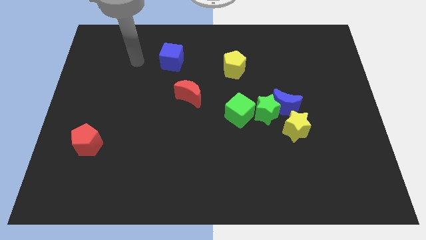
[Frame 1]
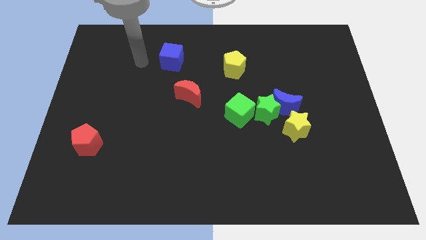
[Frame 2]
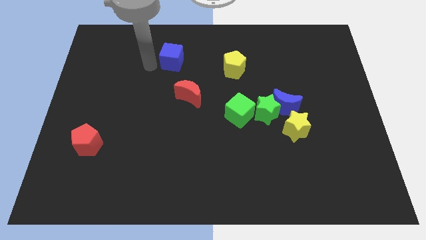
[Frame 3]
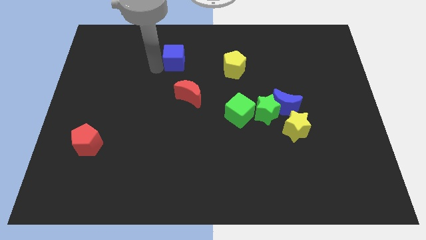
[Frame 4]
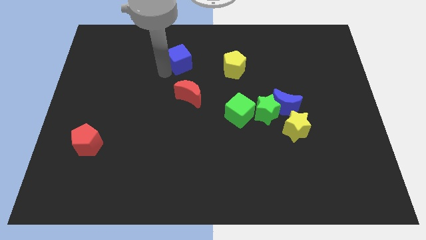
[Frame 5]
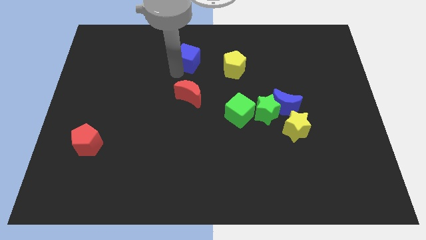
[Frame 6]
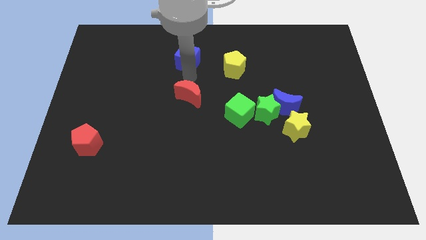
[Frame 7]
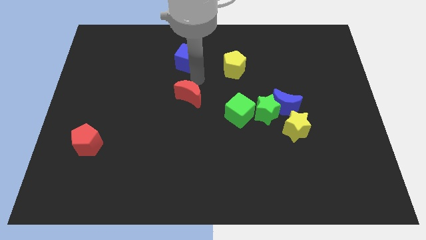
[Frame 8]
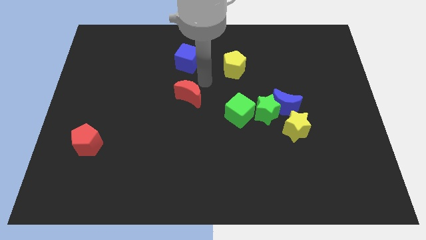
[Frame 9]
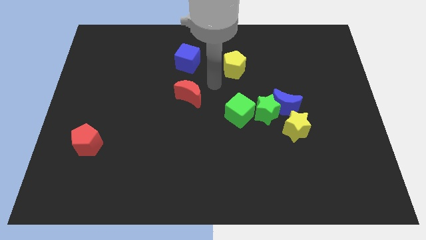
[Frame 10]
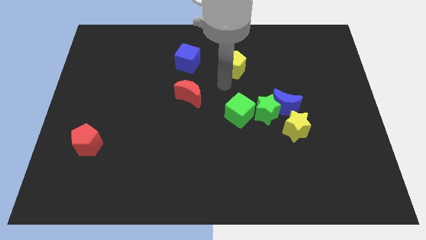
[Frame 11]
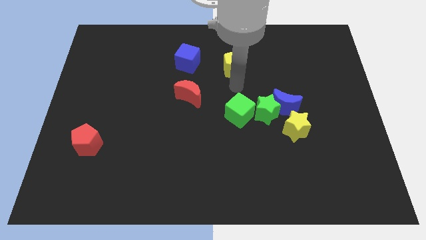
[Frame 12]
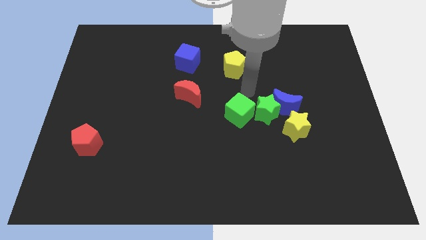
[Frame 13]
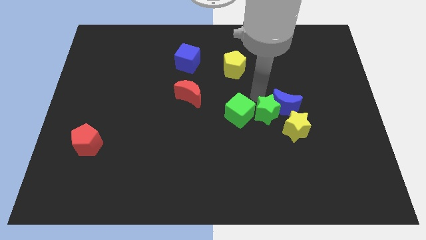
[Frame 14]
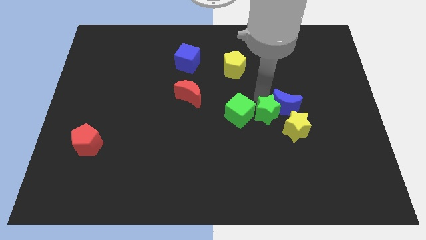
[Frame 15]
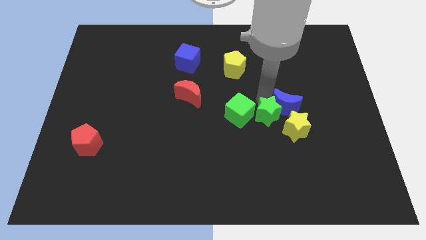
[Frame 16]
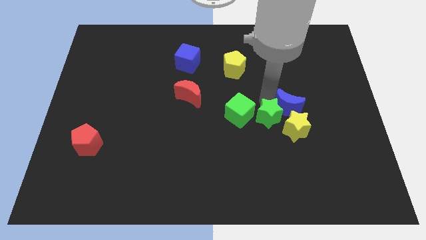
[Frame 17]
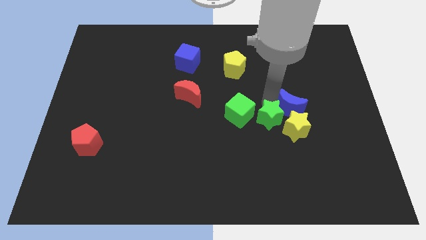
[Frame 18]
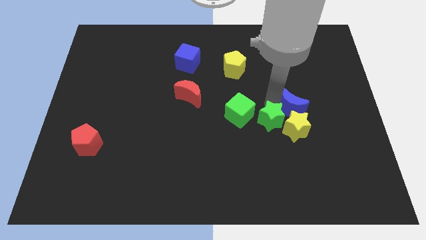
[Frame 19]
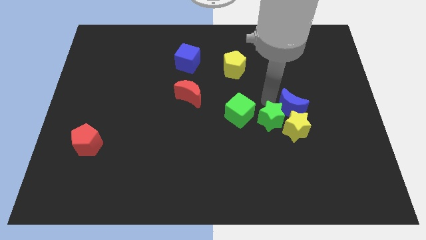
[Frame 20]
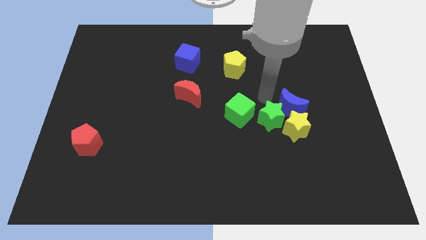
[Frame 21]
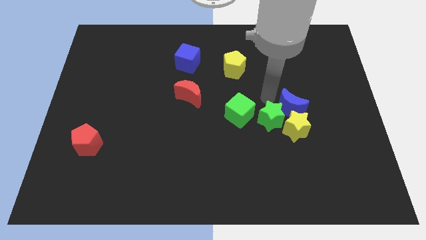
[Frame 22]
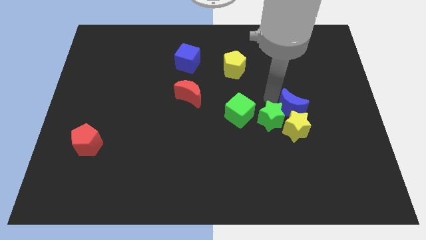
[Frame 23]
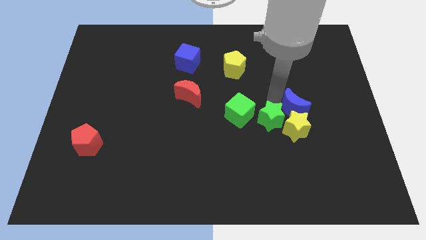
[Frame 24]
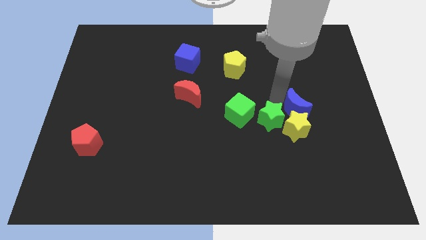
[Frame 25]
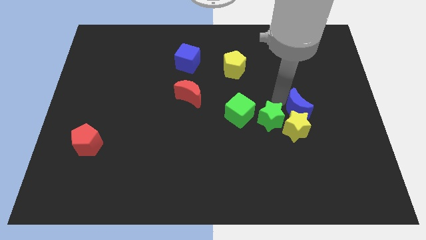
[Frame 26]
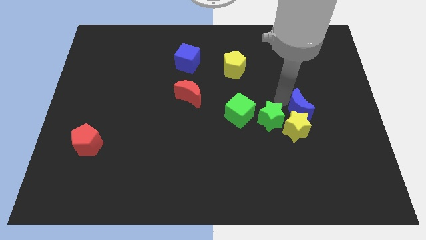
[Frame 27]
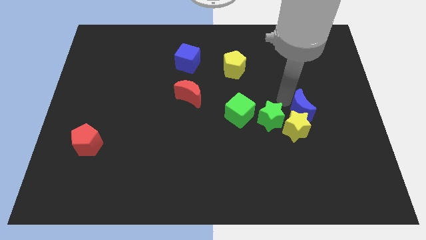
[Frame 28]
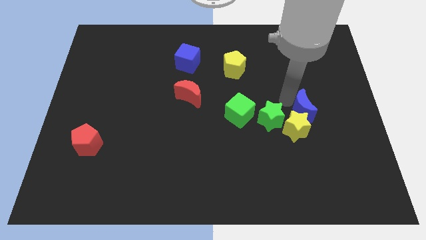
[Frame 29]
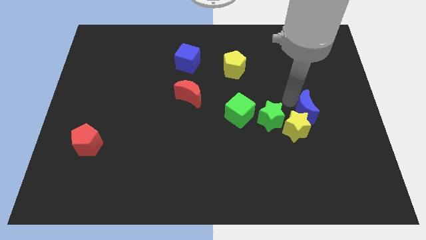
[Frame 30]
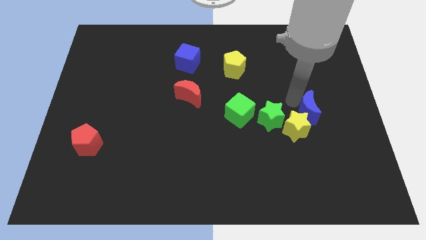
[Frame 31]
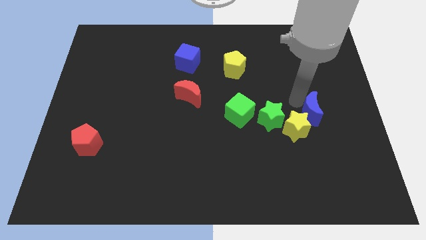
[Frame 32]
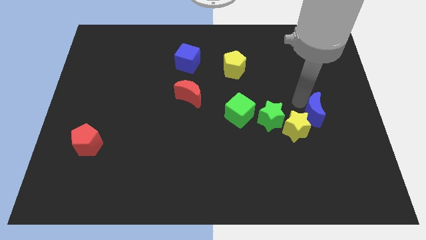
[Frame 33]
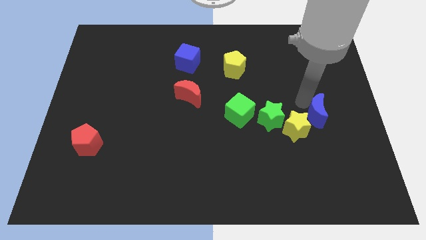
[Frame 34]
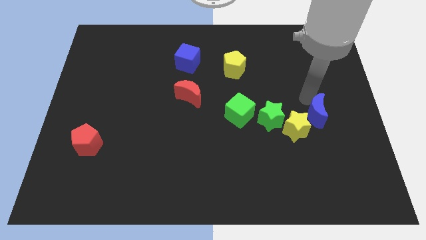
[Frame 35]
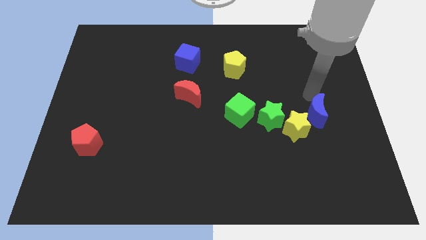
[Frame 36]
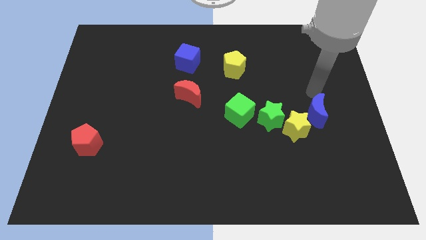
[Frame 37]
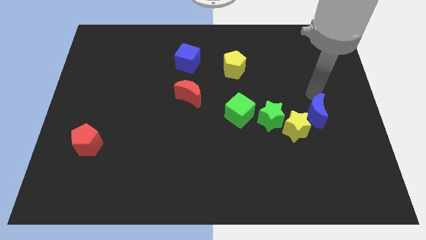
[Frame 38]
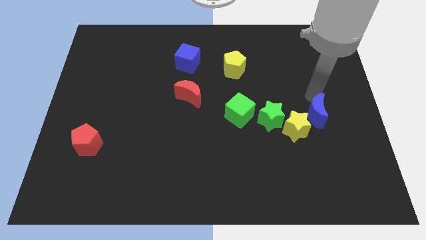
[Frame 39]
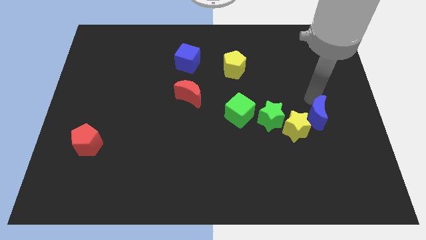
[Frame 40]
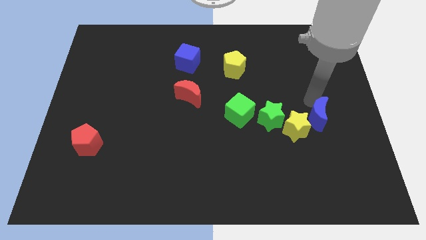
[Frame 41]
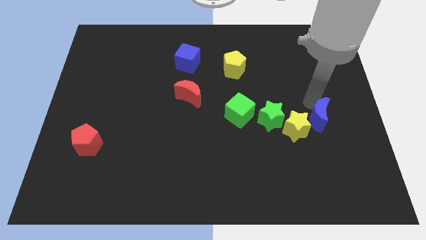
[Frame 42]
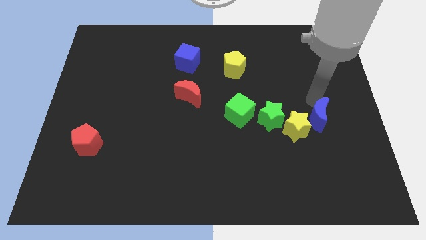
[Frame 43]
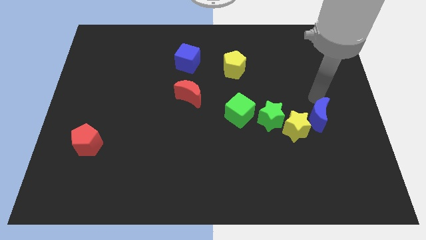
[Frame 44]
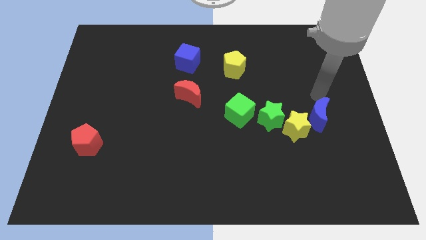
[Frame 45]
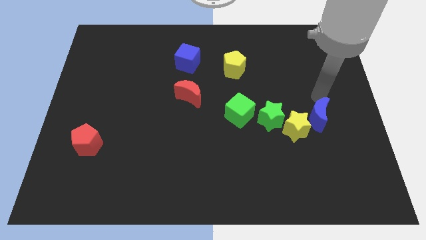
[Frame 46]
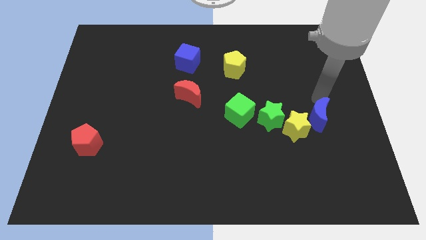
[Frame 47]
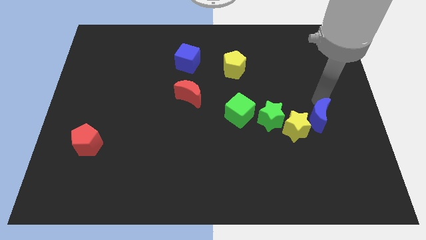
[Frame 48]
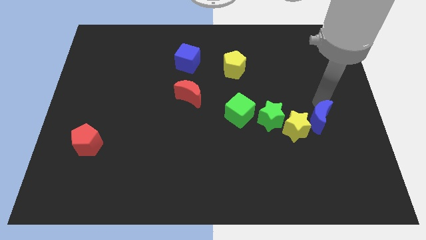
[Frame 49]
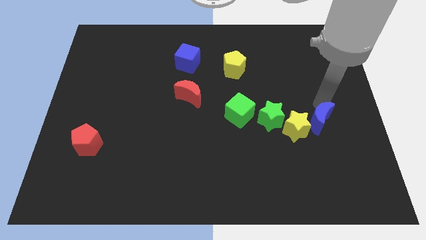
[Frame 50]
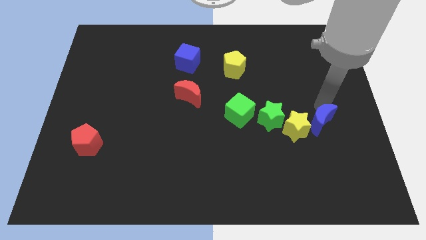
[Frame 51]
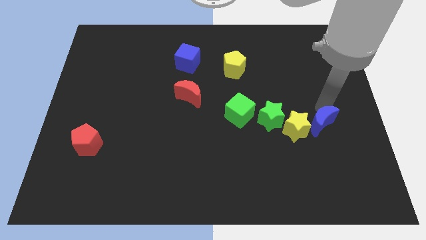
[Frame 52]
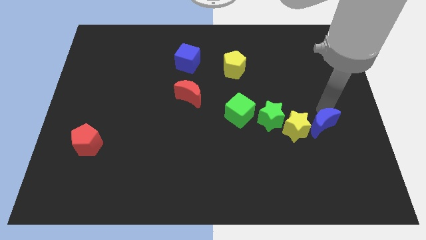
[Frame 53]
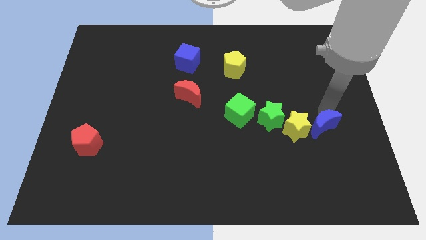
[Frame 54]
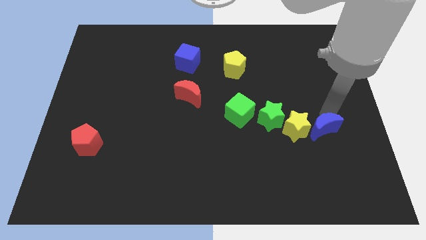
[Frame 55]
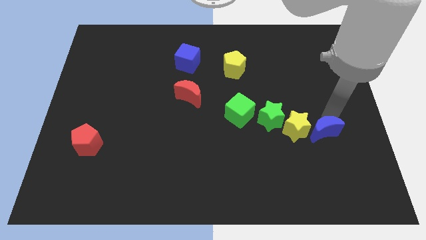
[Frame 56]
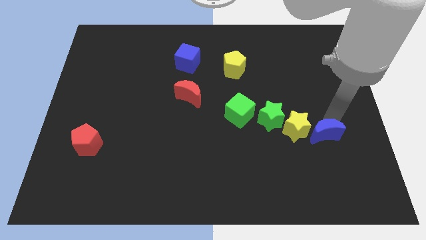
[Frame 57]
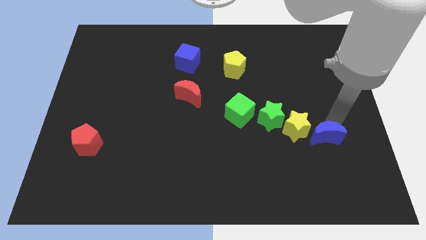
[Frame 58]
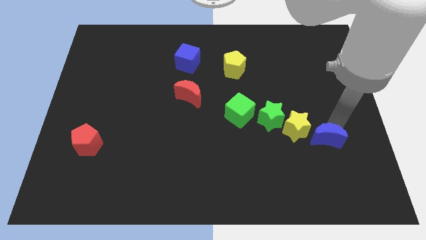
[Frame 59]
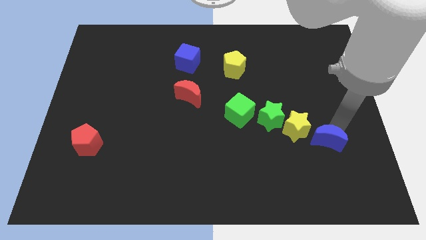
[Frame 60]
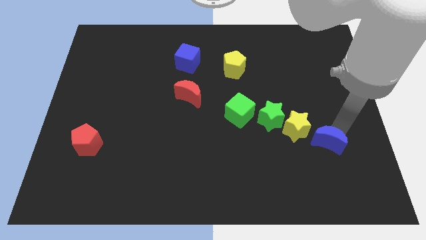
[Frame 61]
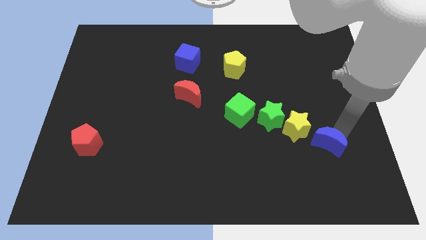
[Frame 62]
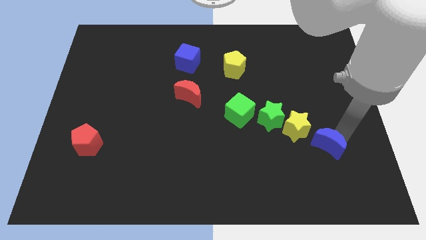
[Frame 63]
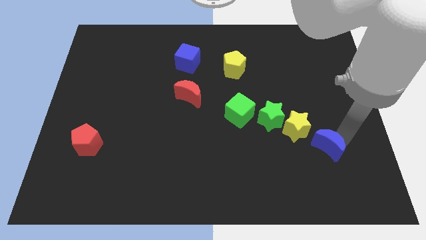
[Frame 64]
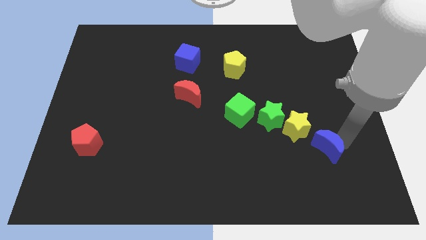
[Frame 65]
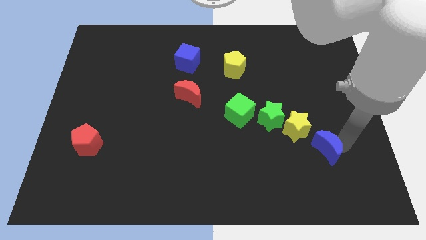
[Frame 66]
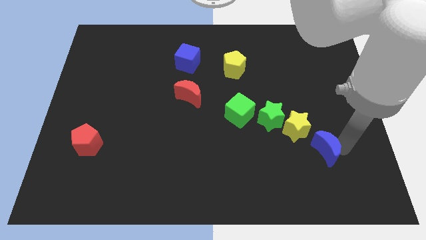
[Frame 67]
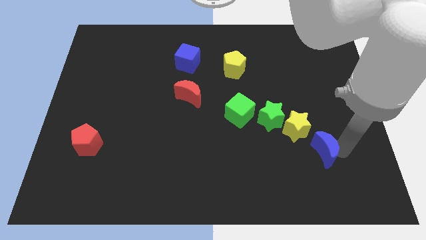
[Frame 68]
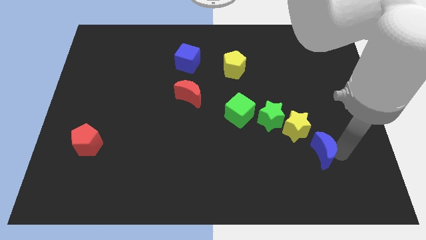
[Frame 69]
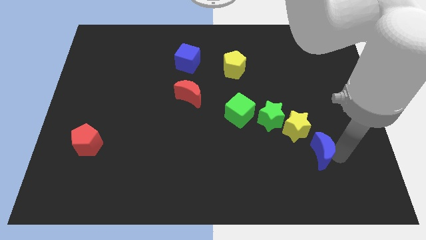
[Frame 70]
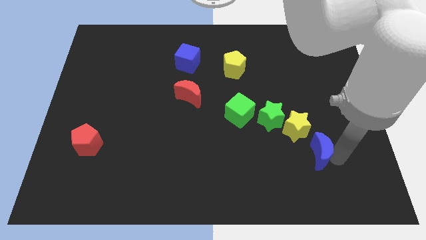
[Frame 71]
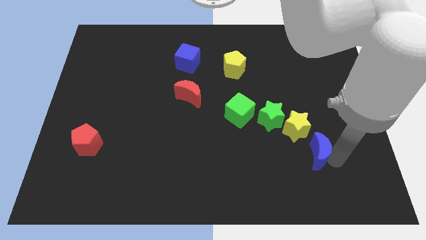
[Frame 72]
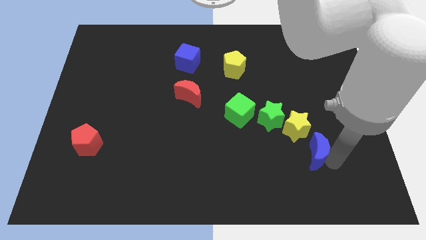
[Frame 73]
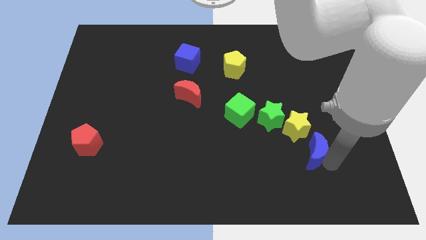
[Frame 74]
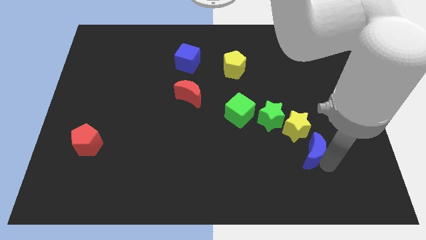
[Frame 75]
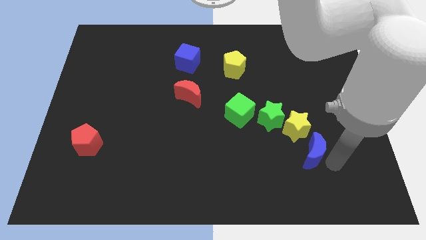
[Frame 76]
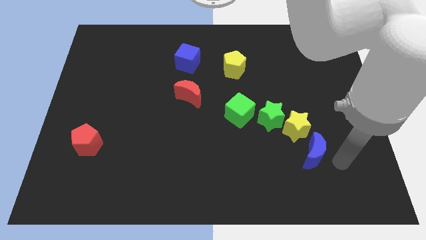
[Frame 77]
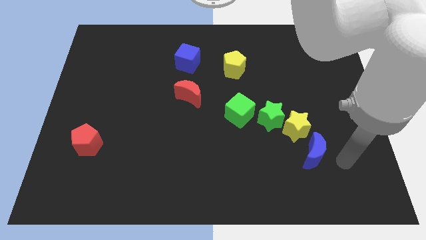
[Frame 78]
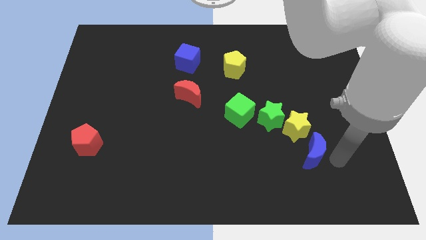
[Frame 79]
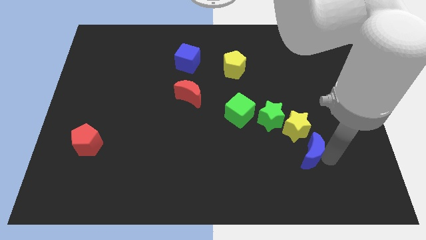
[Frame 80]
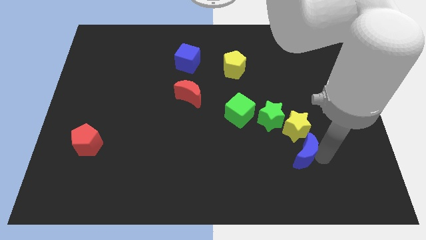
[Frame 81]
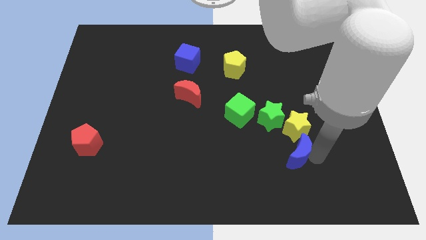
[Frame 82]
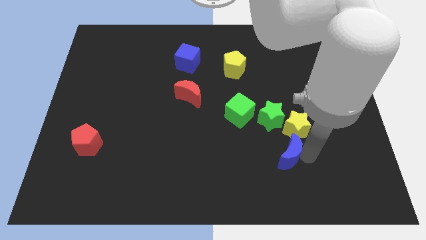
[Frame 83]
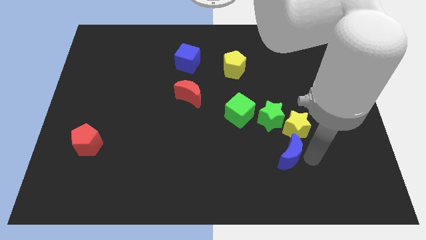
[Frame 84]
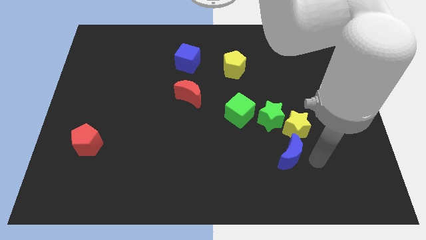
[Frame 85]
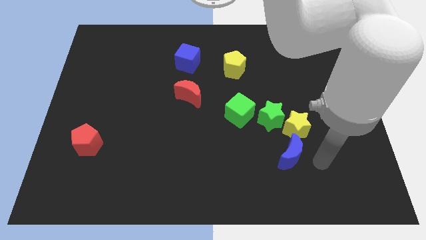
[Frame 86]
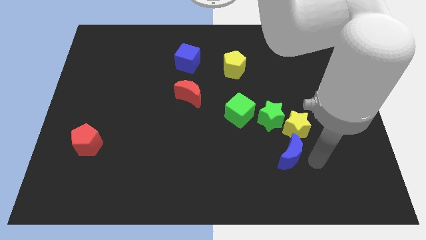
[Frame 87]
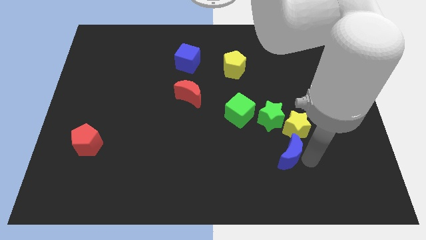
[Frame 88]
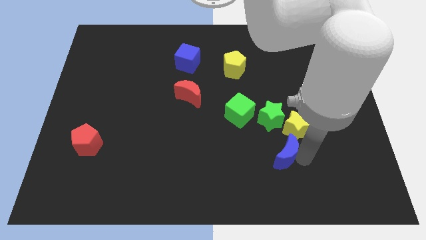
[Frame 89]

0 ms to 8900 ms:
slightly push the blue moon down and then to the left
